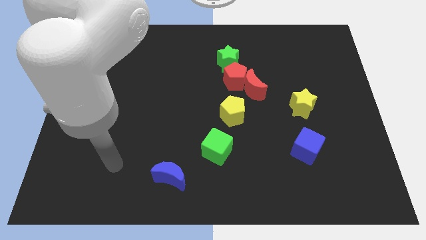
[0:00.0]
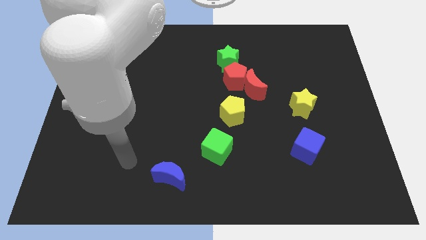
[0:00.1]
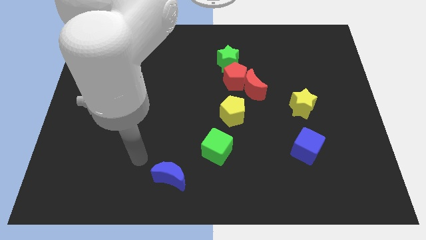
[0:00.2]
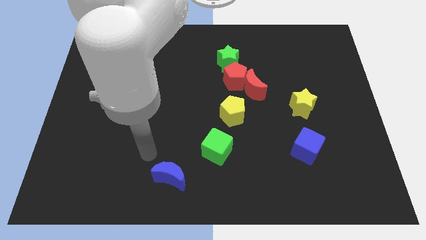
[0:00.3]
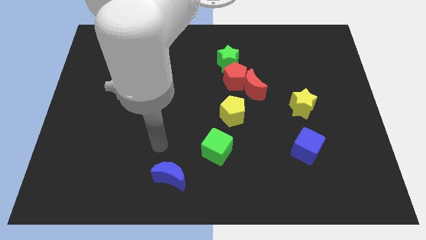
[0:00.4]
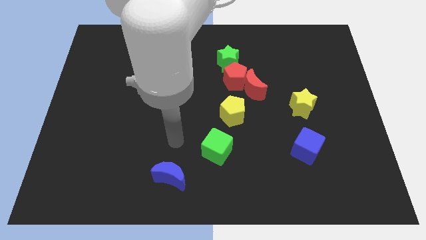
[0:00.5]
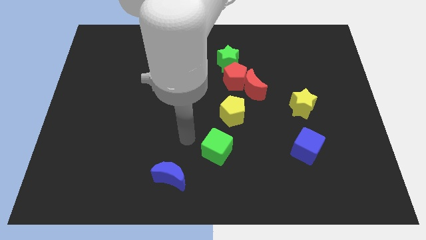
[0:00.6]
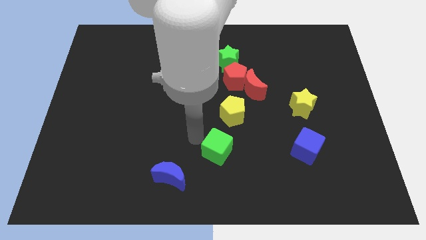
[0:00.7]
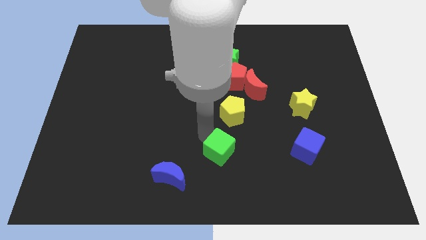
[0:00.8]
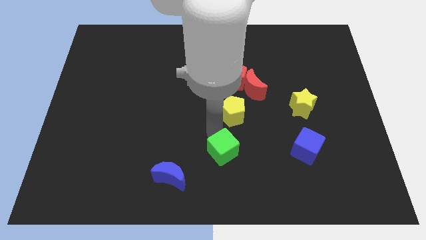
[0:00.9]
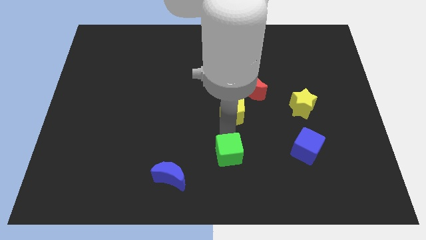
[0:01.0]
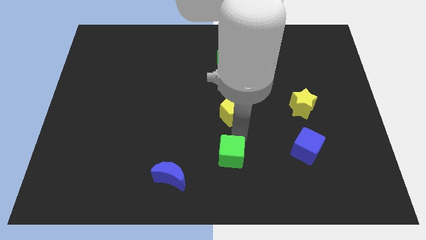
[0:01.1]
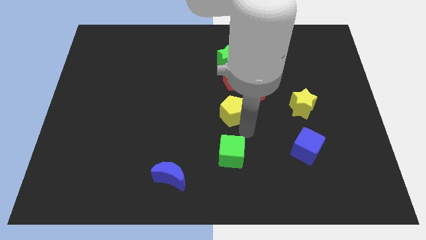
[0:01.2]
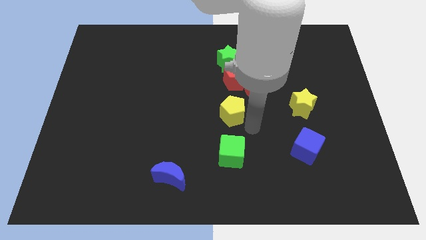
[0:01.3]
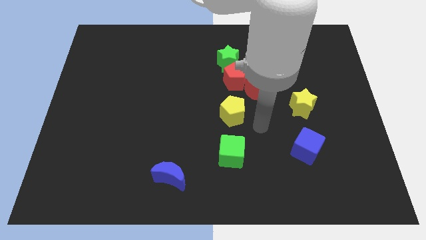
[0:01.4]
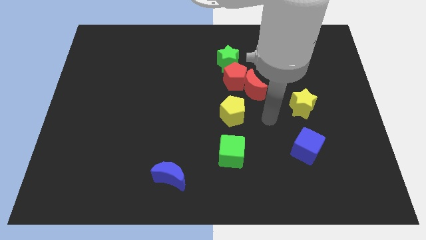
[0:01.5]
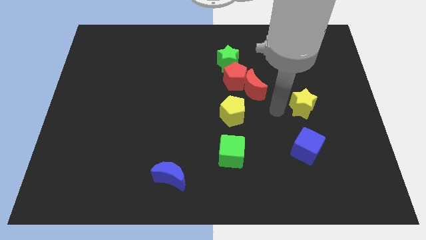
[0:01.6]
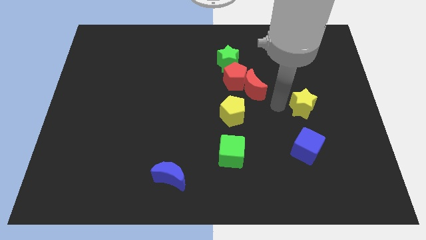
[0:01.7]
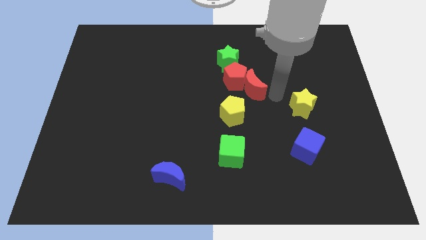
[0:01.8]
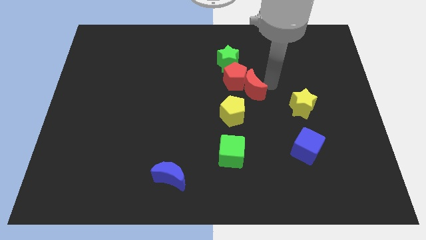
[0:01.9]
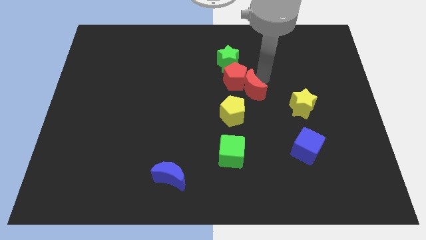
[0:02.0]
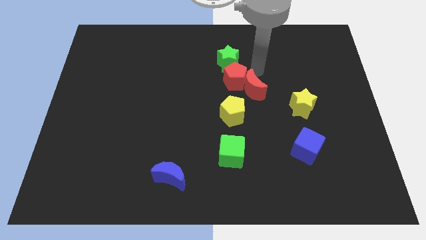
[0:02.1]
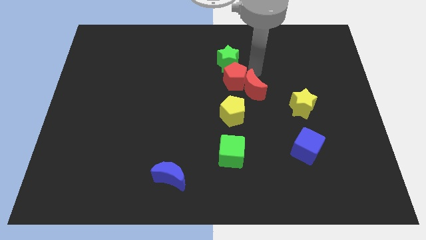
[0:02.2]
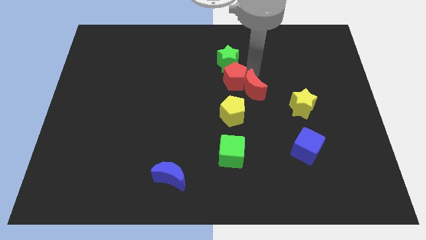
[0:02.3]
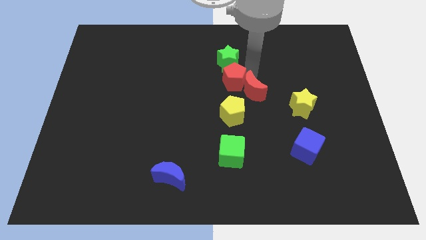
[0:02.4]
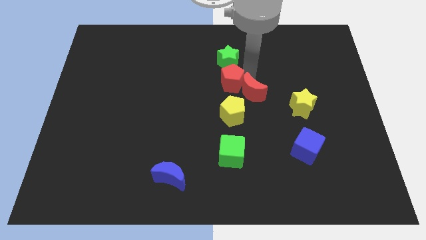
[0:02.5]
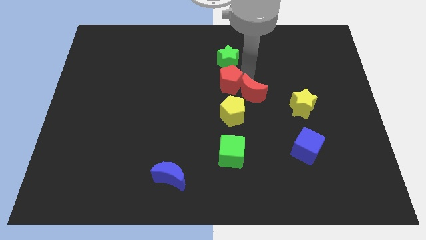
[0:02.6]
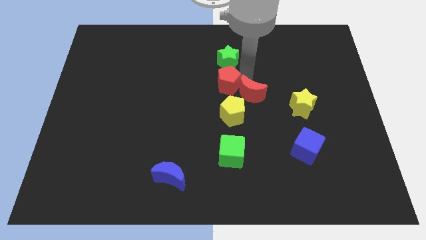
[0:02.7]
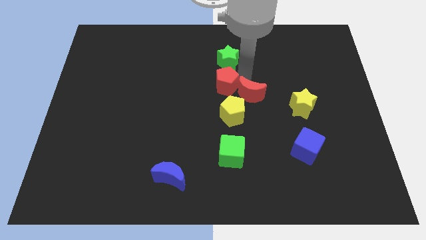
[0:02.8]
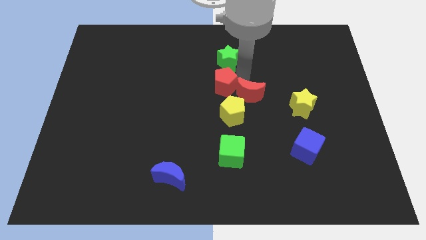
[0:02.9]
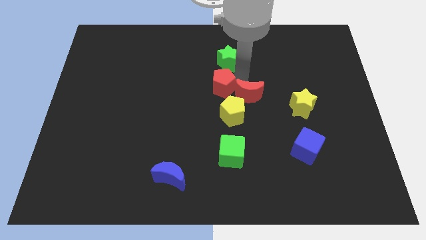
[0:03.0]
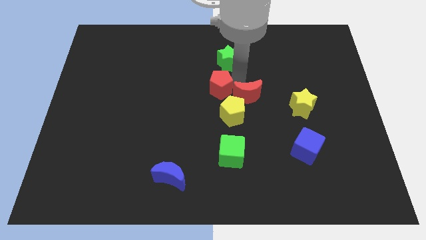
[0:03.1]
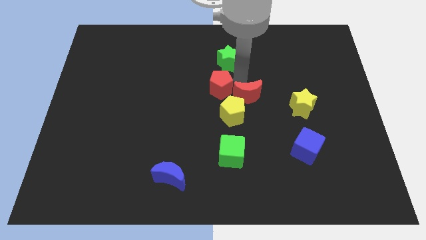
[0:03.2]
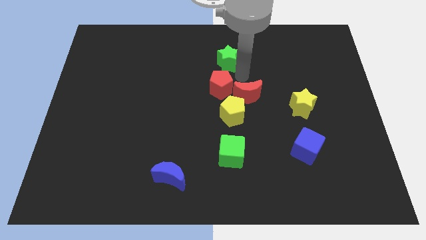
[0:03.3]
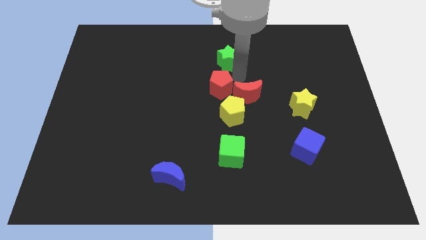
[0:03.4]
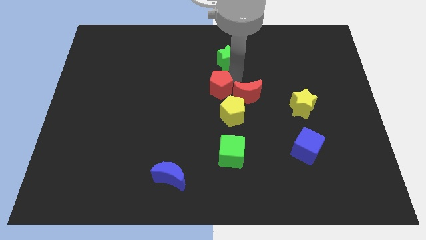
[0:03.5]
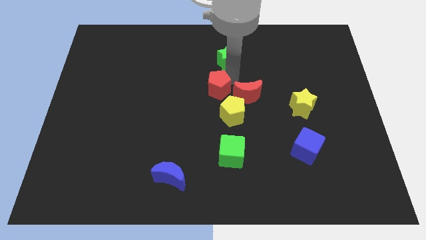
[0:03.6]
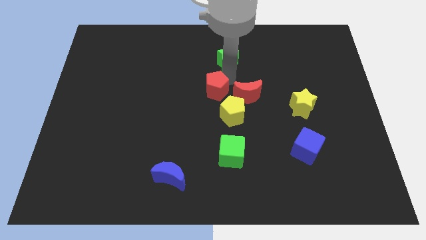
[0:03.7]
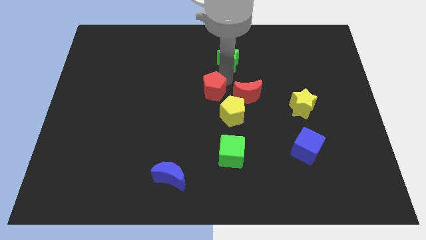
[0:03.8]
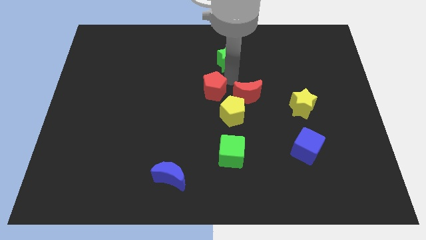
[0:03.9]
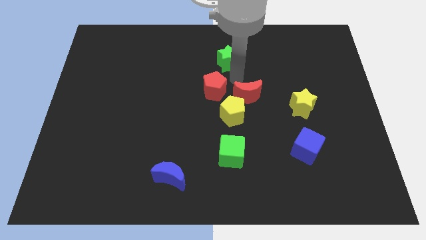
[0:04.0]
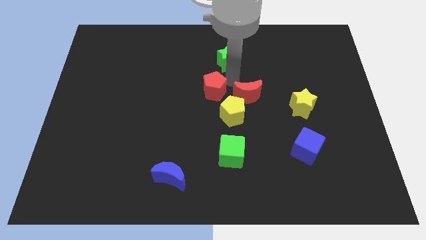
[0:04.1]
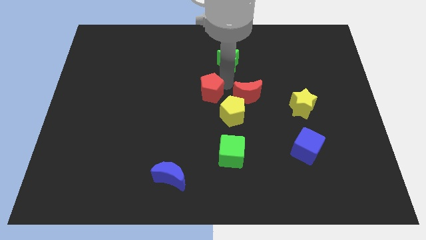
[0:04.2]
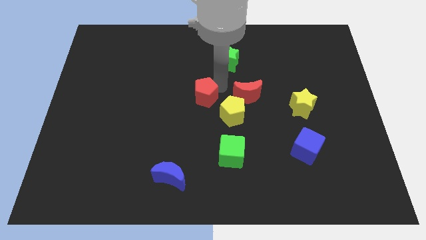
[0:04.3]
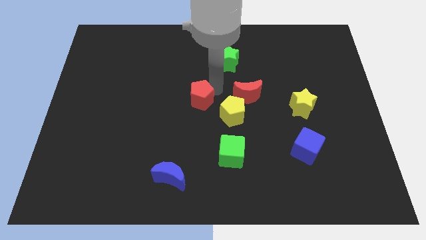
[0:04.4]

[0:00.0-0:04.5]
separate the red pentagon from the red moon and green star

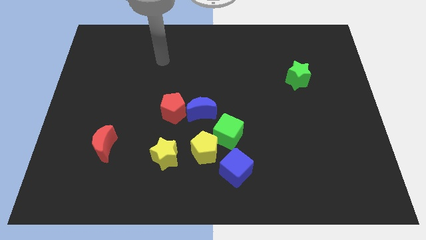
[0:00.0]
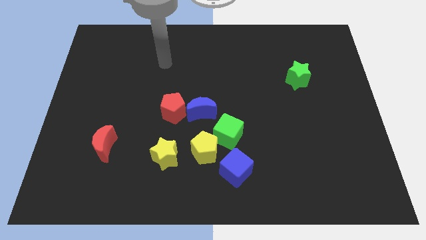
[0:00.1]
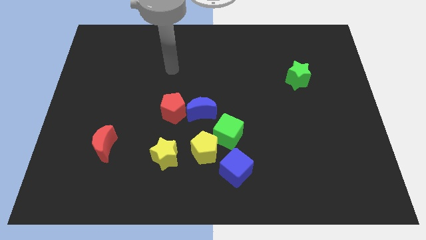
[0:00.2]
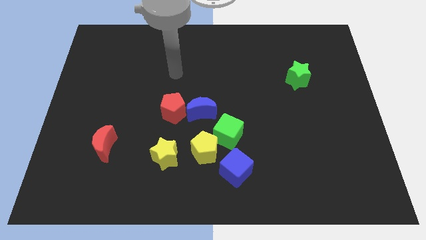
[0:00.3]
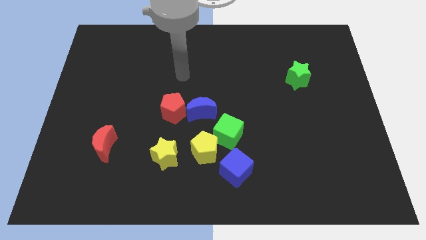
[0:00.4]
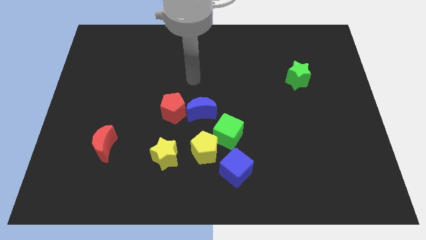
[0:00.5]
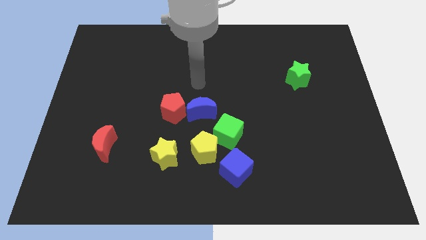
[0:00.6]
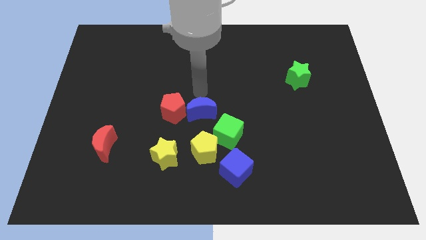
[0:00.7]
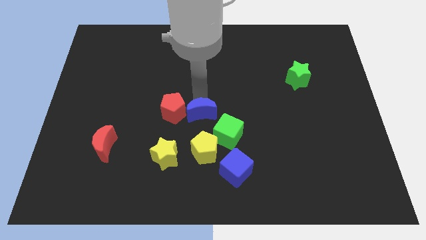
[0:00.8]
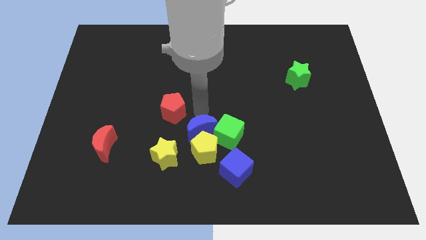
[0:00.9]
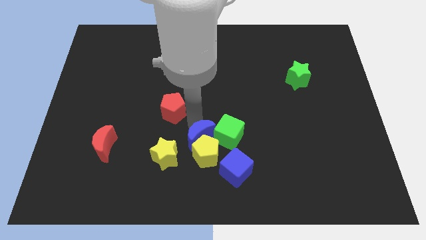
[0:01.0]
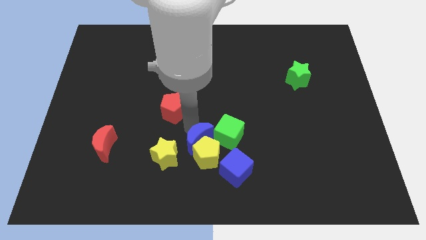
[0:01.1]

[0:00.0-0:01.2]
move the red pentagon away from the blue moon

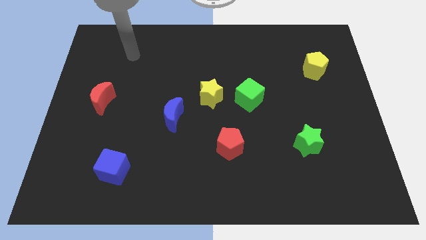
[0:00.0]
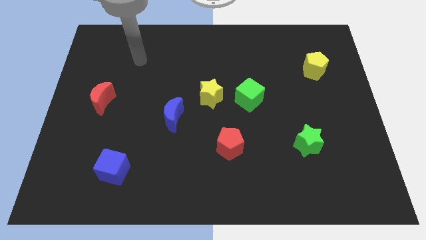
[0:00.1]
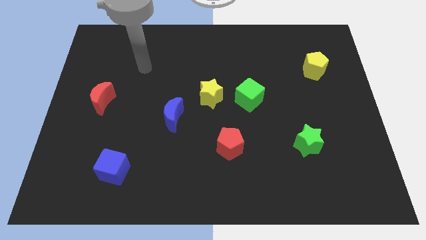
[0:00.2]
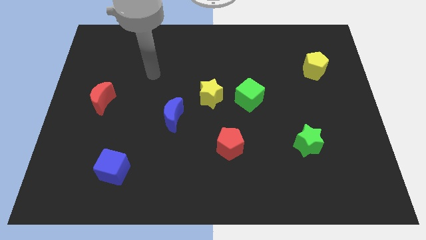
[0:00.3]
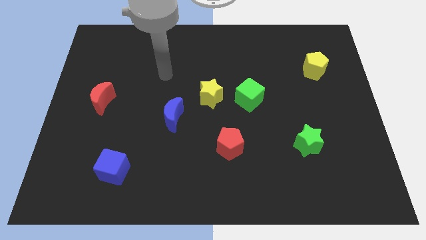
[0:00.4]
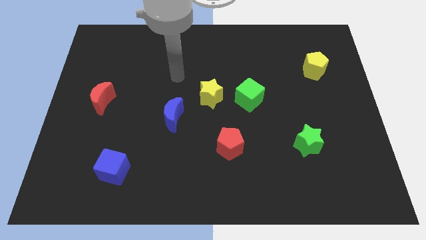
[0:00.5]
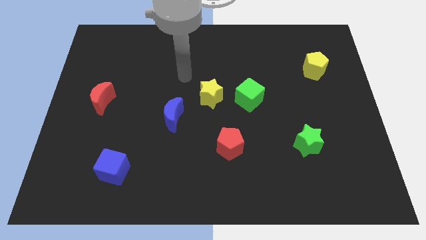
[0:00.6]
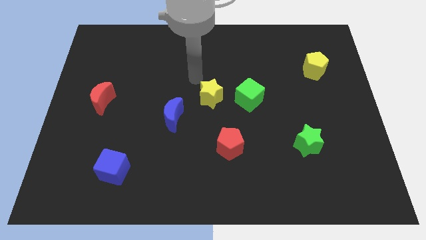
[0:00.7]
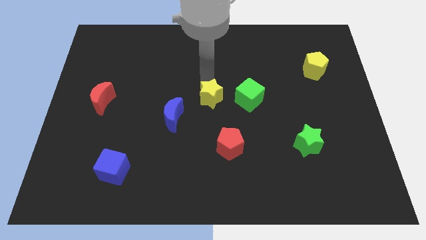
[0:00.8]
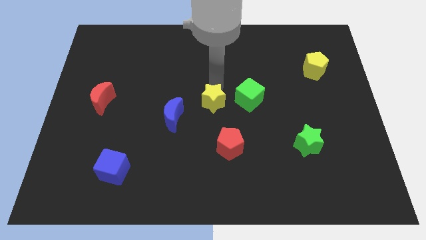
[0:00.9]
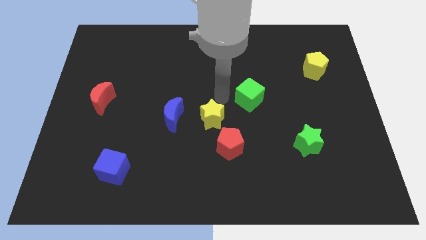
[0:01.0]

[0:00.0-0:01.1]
pull the green cube apart from the yellow star

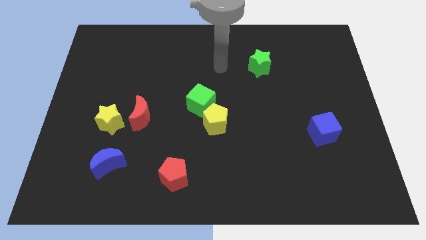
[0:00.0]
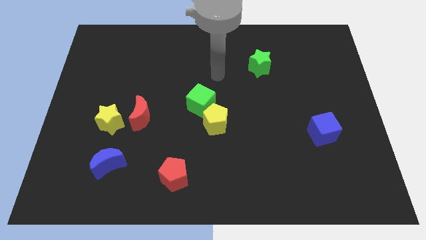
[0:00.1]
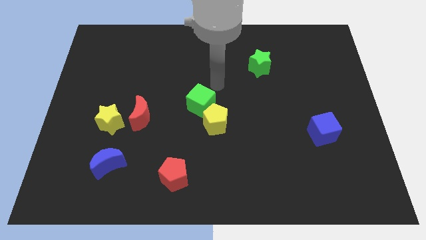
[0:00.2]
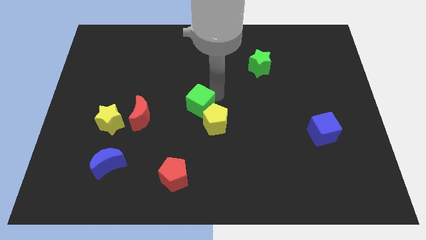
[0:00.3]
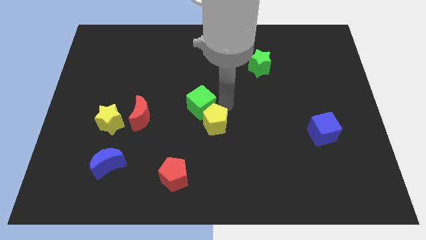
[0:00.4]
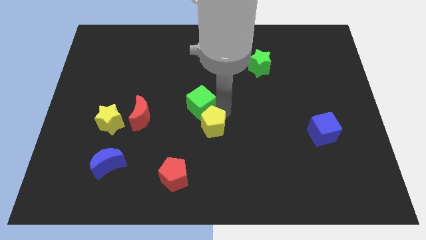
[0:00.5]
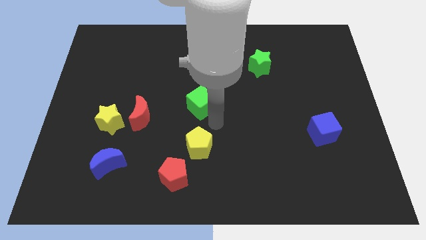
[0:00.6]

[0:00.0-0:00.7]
pull the green cube apart from the yellow pentagon

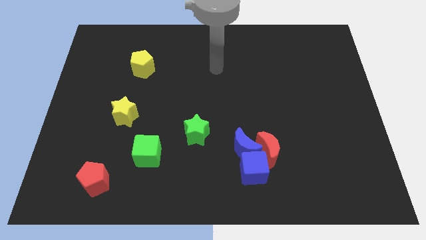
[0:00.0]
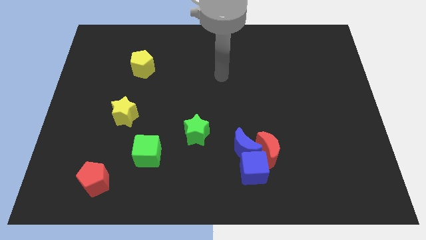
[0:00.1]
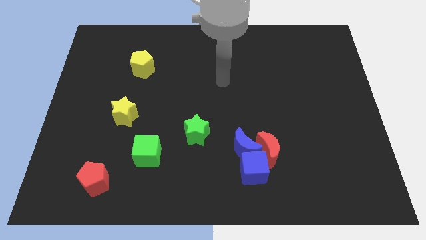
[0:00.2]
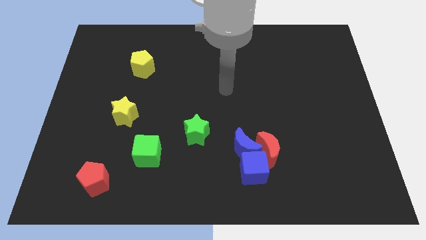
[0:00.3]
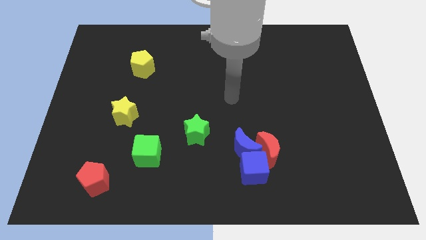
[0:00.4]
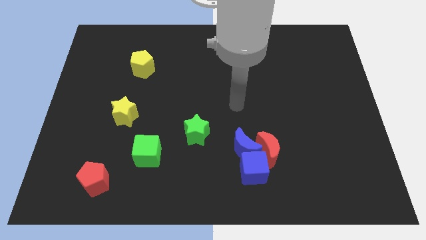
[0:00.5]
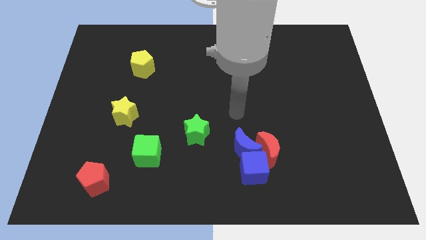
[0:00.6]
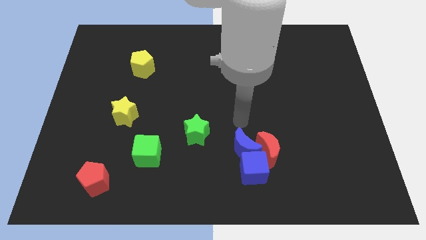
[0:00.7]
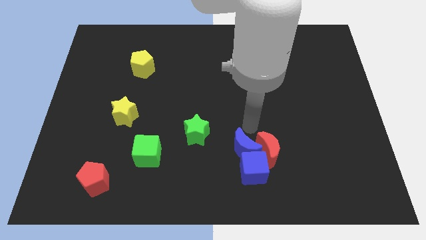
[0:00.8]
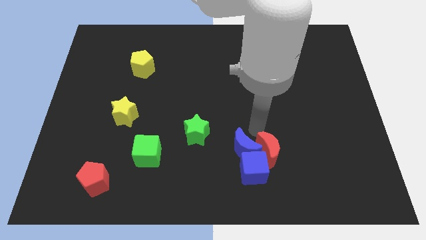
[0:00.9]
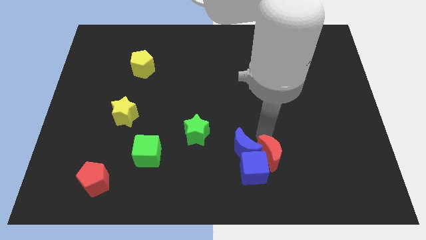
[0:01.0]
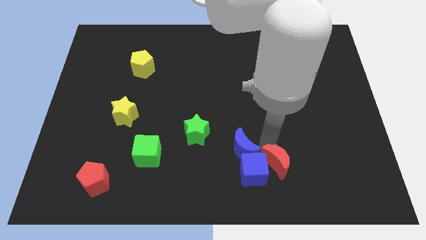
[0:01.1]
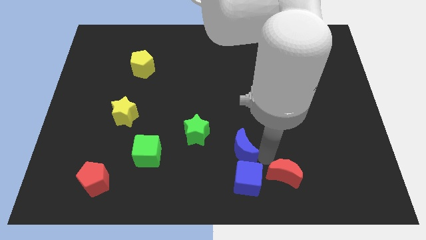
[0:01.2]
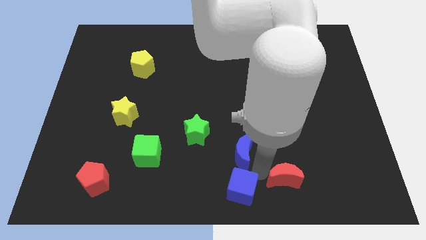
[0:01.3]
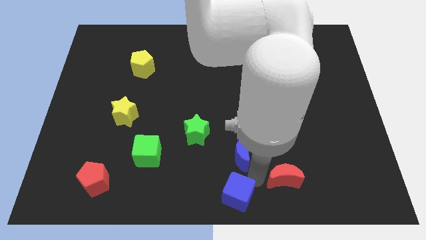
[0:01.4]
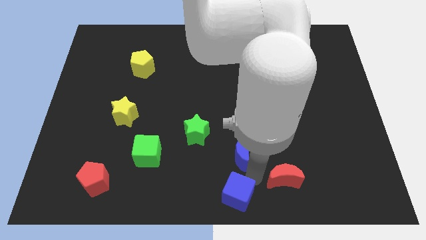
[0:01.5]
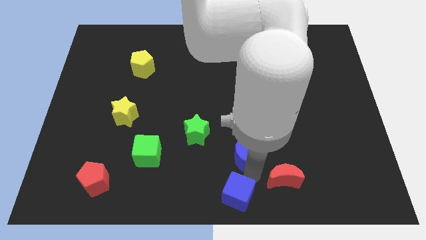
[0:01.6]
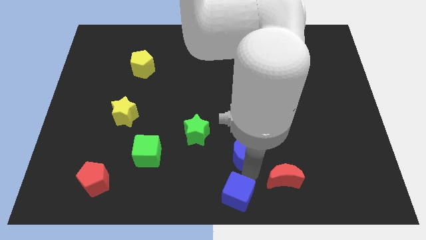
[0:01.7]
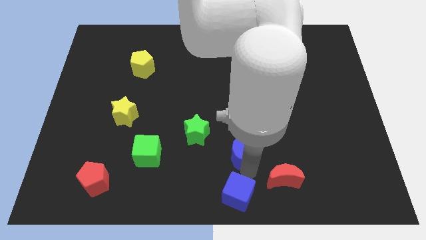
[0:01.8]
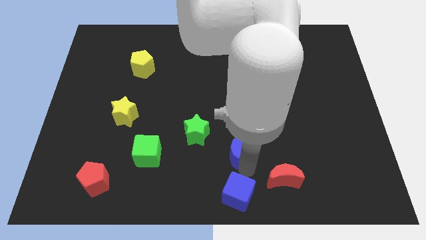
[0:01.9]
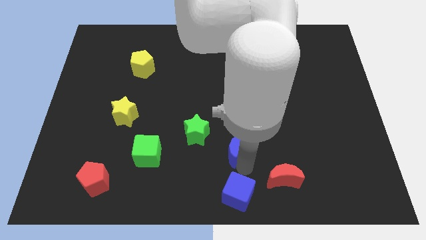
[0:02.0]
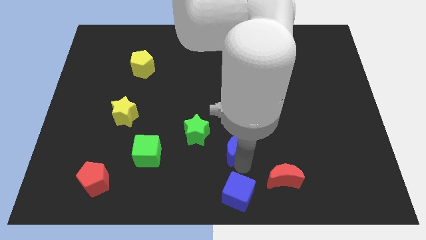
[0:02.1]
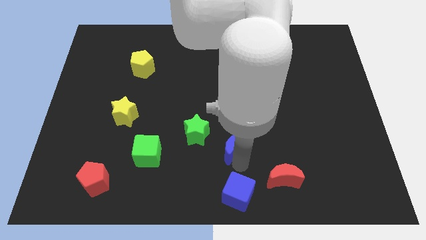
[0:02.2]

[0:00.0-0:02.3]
move the blue moon away from the red moon and blue cube
